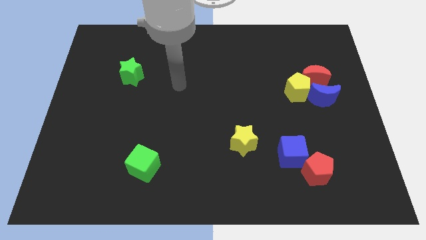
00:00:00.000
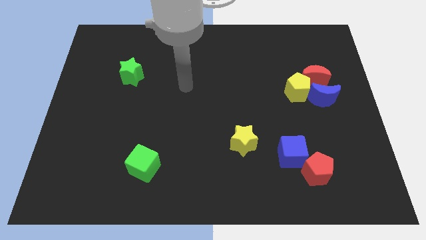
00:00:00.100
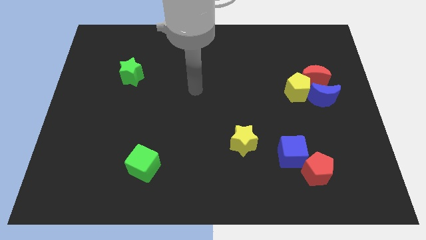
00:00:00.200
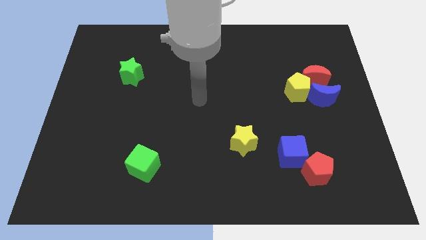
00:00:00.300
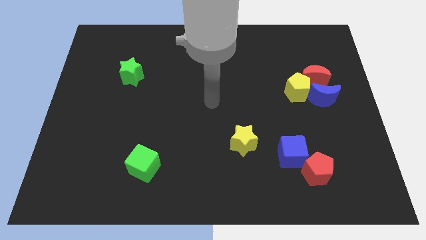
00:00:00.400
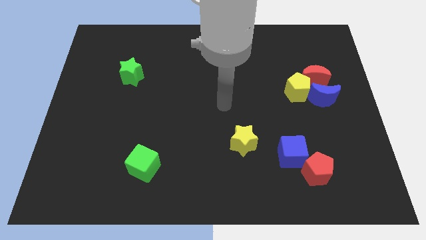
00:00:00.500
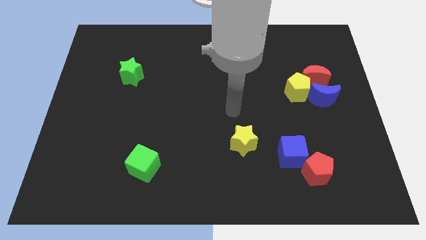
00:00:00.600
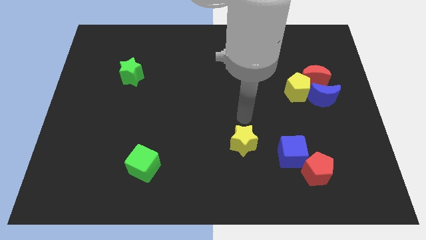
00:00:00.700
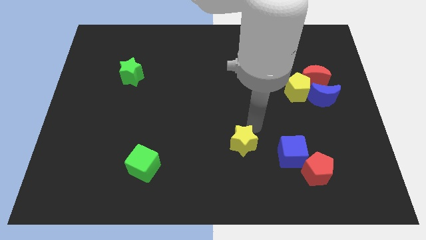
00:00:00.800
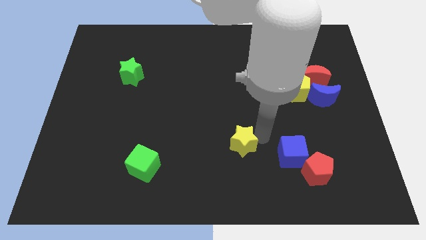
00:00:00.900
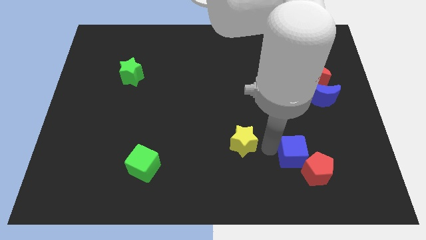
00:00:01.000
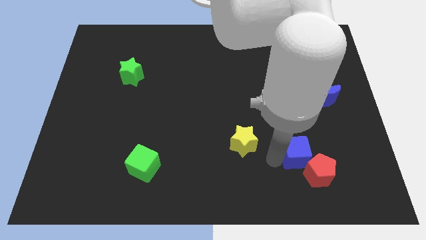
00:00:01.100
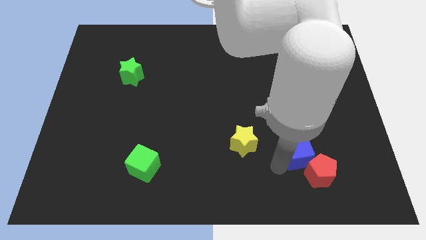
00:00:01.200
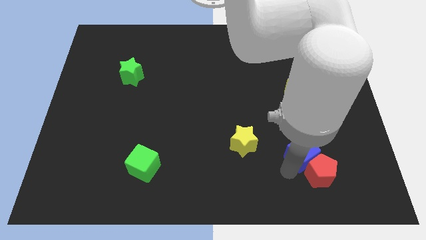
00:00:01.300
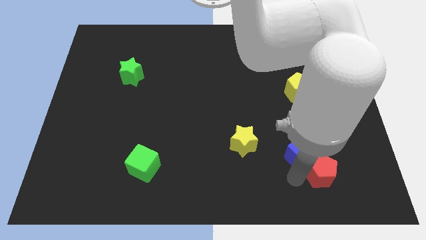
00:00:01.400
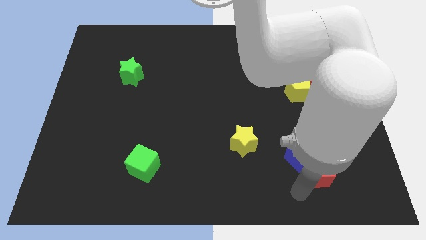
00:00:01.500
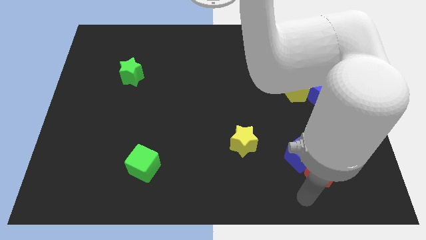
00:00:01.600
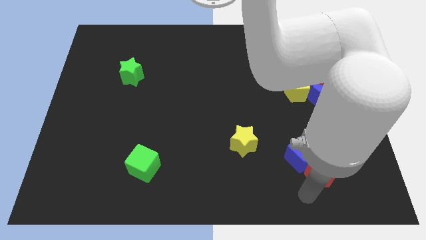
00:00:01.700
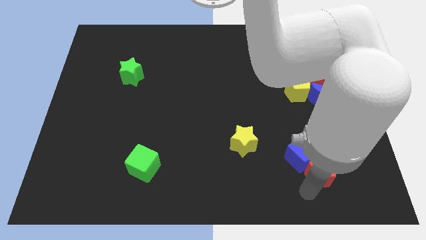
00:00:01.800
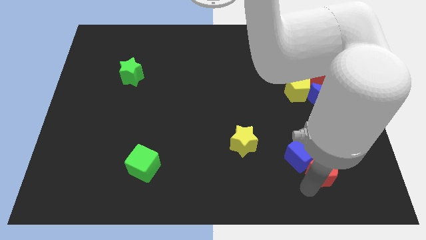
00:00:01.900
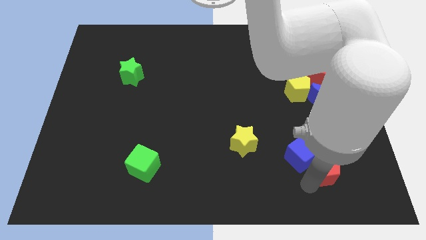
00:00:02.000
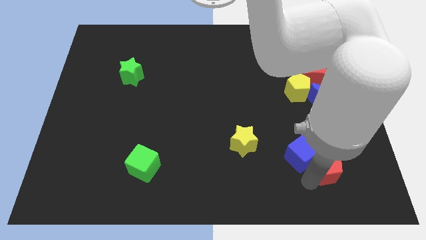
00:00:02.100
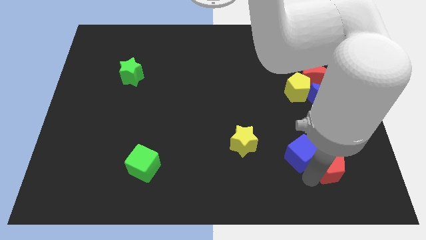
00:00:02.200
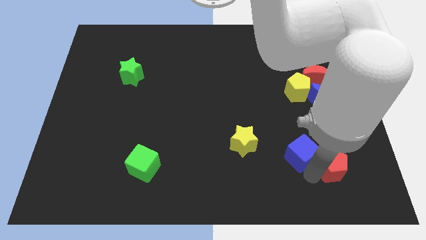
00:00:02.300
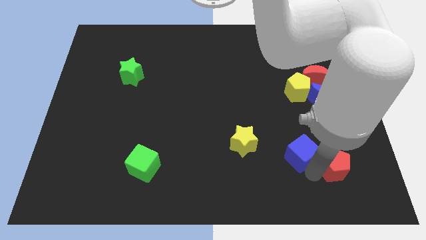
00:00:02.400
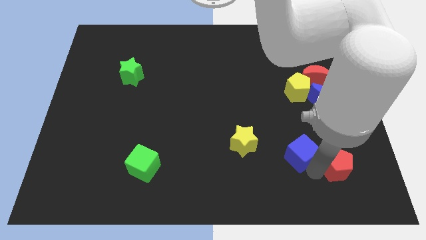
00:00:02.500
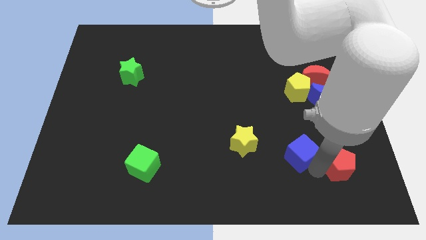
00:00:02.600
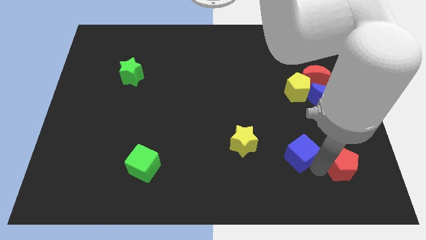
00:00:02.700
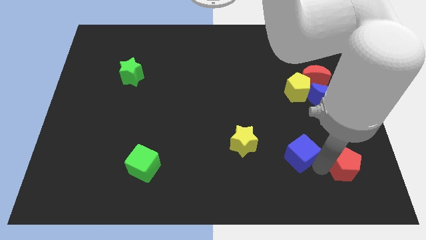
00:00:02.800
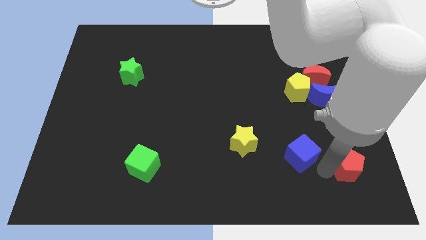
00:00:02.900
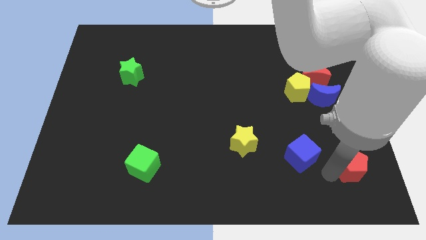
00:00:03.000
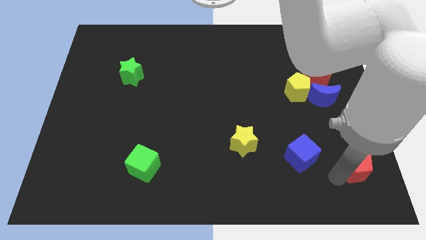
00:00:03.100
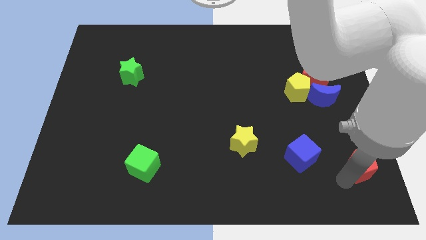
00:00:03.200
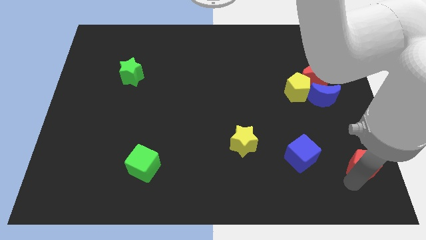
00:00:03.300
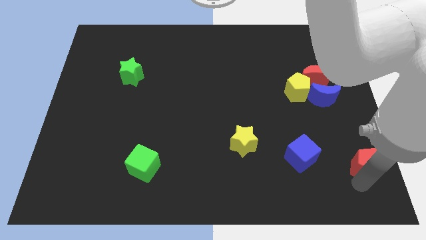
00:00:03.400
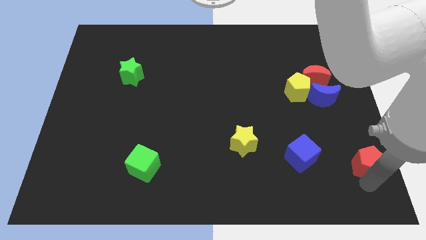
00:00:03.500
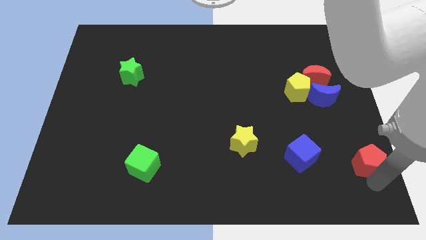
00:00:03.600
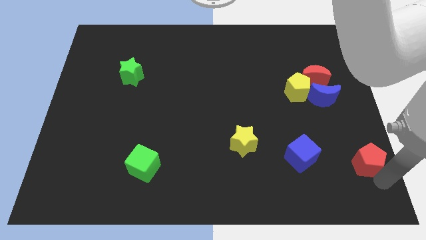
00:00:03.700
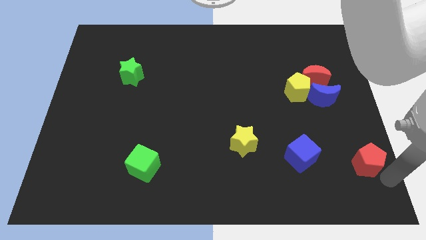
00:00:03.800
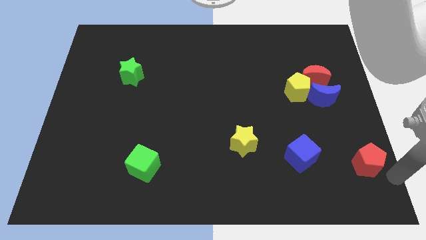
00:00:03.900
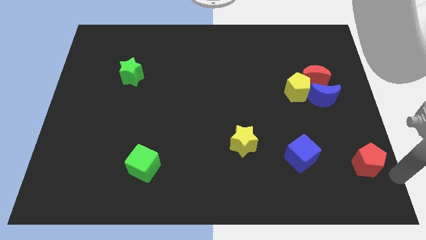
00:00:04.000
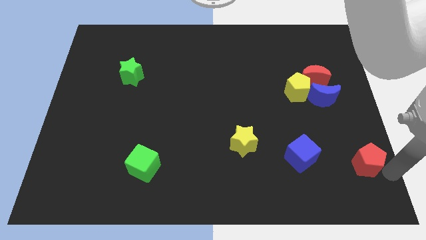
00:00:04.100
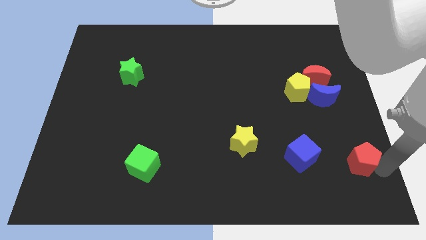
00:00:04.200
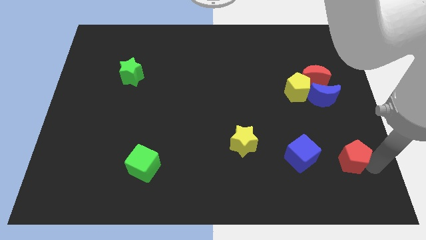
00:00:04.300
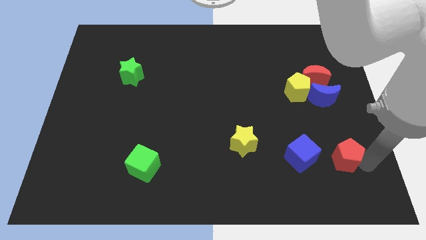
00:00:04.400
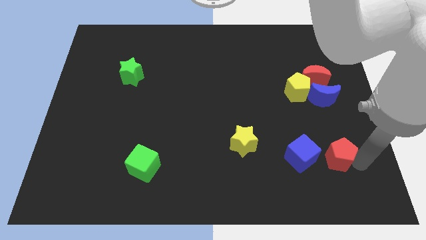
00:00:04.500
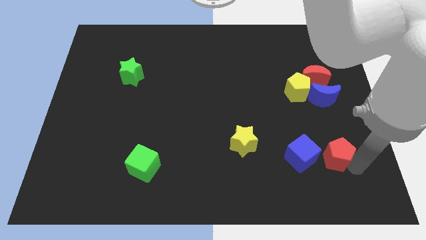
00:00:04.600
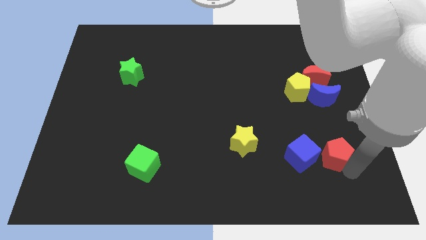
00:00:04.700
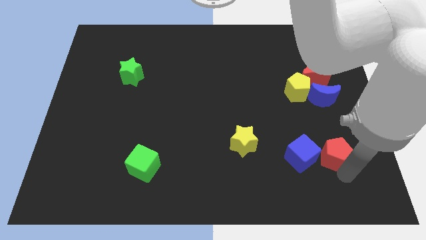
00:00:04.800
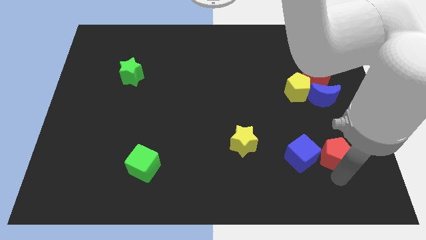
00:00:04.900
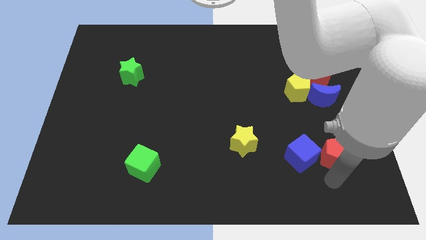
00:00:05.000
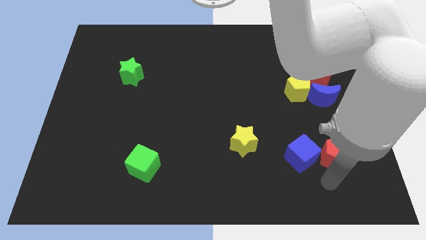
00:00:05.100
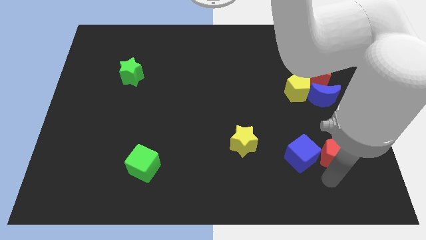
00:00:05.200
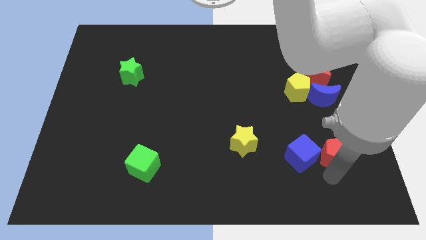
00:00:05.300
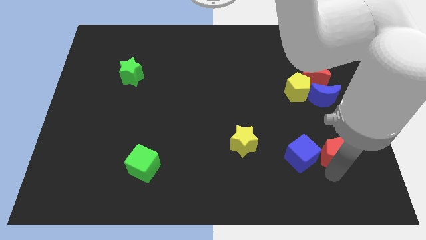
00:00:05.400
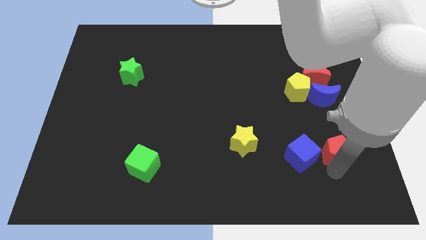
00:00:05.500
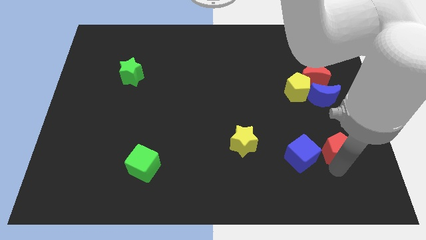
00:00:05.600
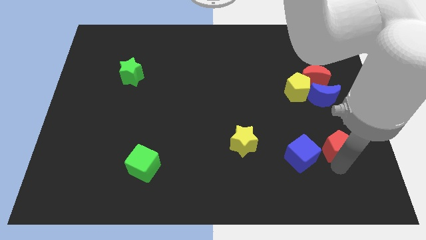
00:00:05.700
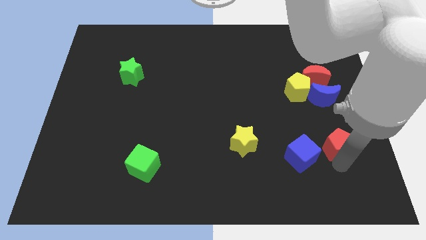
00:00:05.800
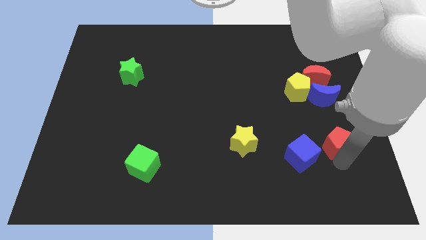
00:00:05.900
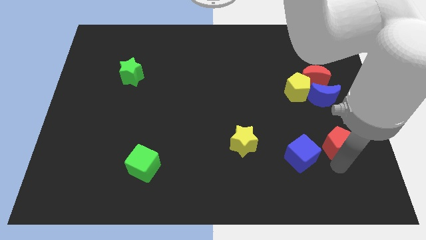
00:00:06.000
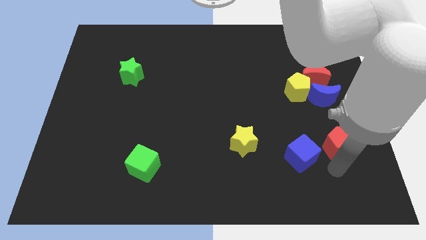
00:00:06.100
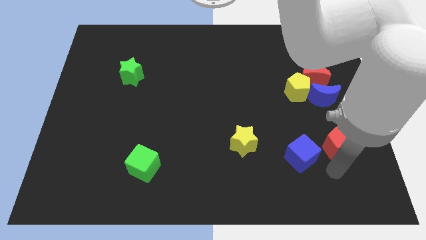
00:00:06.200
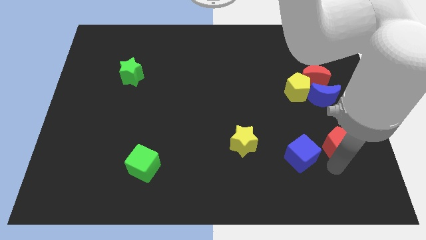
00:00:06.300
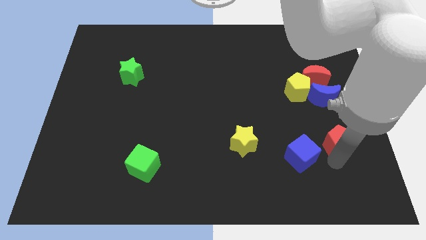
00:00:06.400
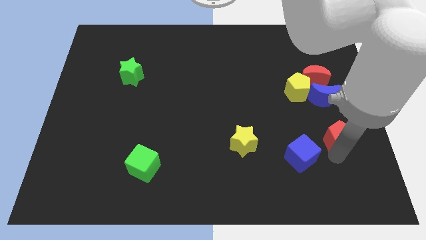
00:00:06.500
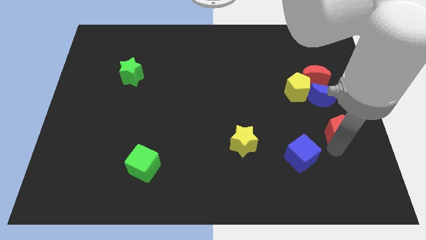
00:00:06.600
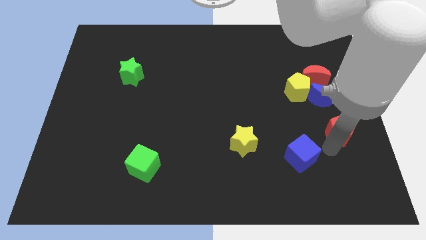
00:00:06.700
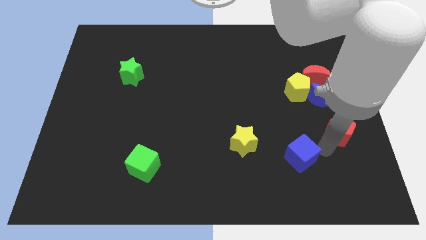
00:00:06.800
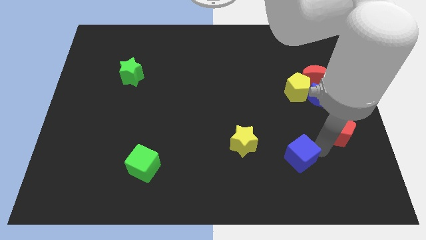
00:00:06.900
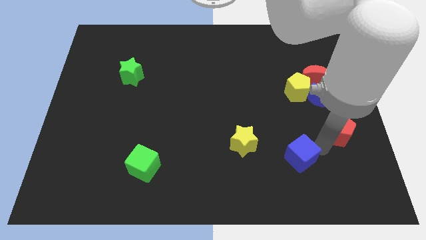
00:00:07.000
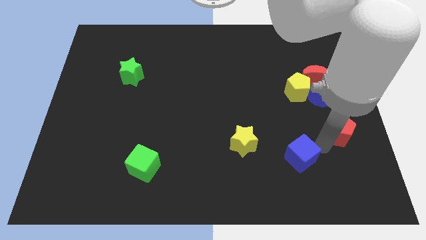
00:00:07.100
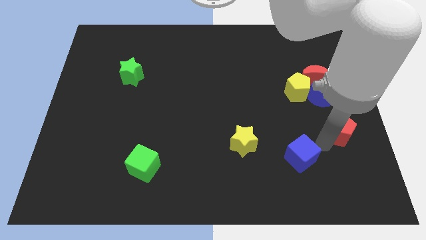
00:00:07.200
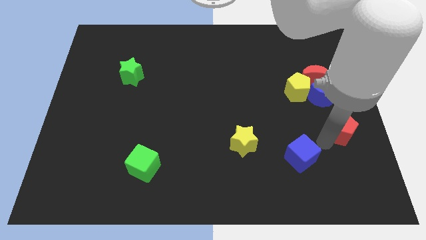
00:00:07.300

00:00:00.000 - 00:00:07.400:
put the red pentagon to the center right
